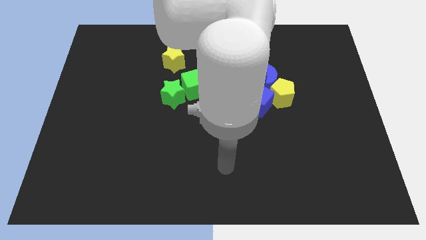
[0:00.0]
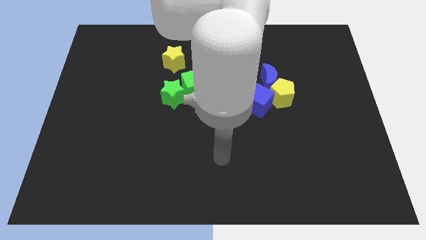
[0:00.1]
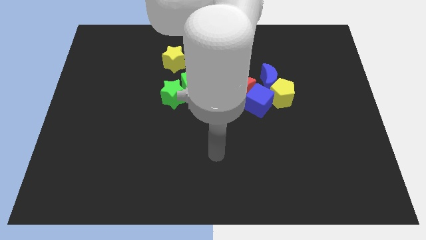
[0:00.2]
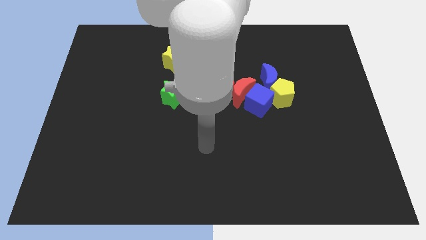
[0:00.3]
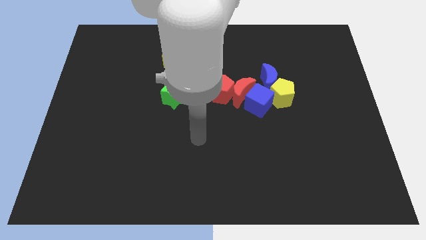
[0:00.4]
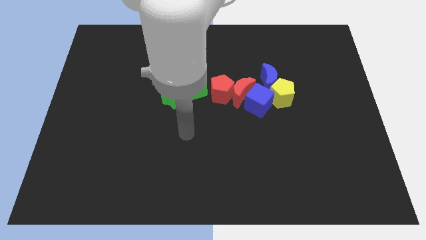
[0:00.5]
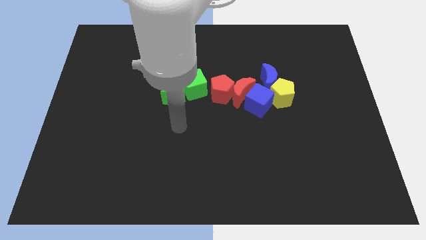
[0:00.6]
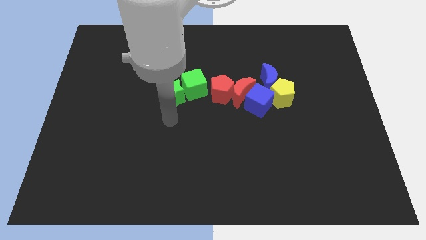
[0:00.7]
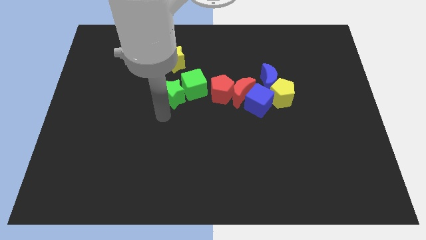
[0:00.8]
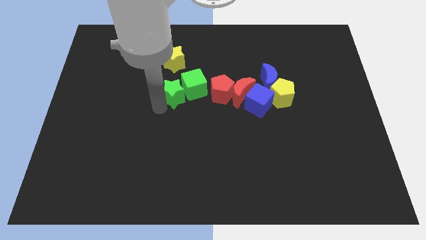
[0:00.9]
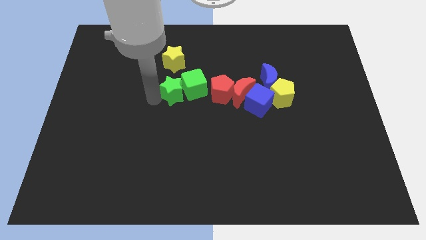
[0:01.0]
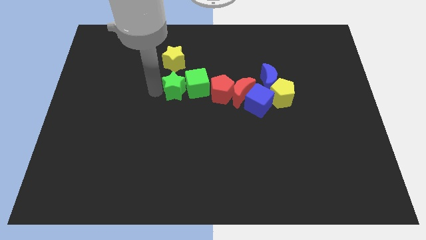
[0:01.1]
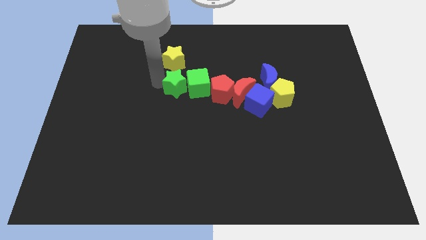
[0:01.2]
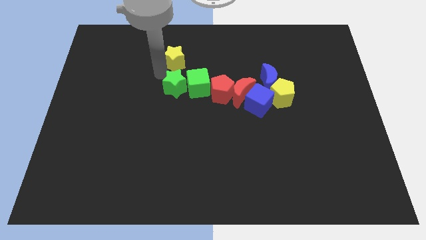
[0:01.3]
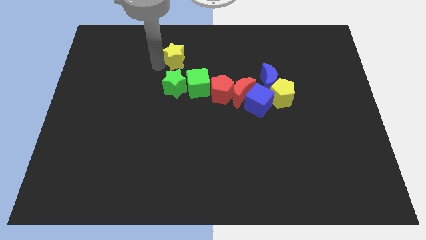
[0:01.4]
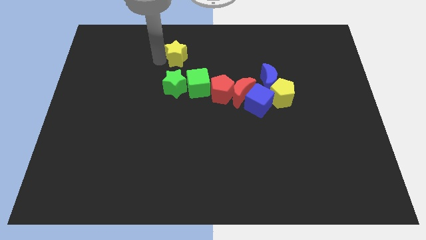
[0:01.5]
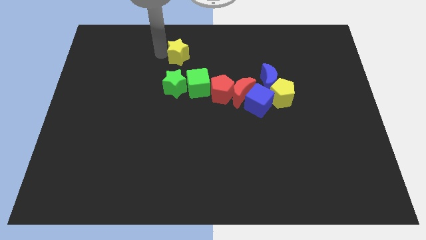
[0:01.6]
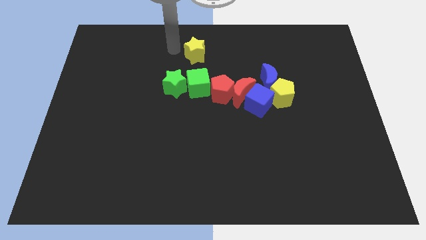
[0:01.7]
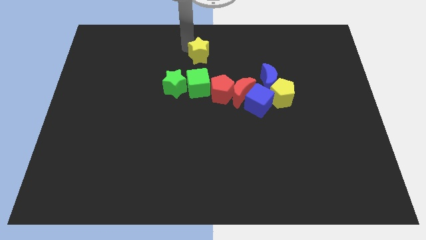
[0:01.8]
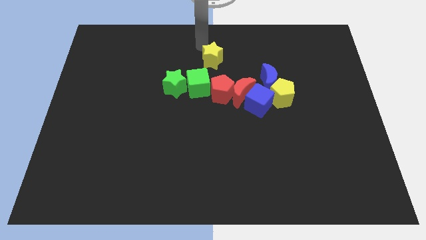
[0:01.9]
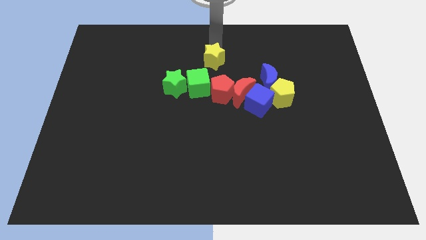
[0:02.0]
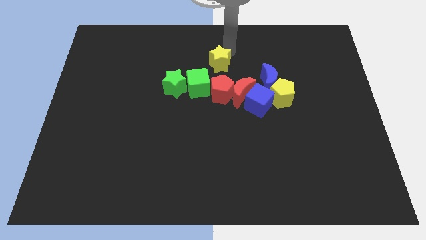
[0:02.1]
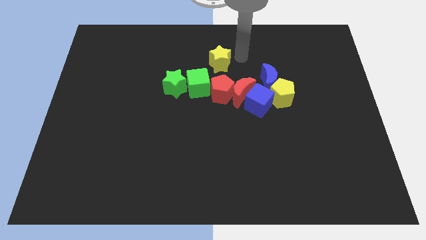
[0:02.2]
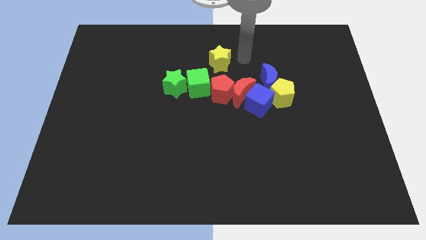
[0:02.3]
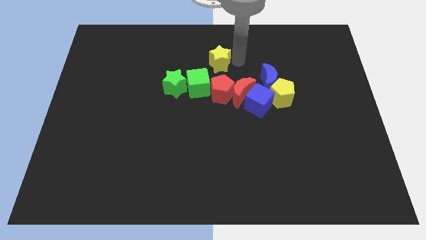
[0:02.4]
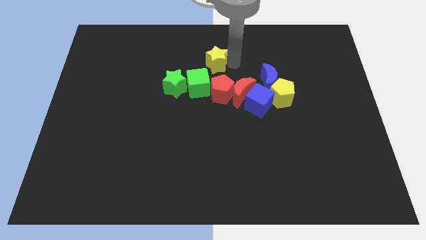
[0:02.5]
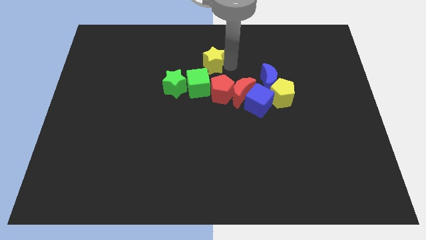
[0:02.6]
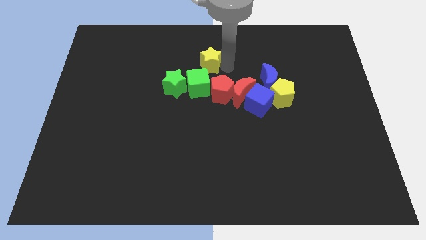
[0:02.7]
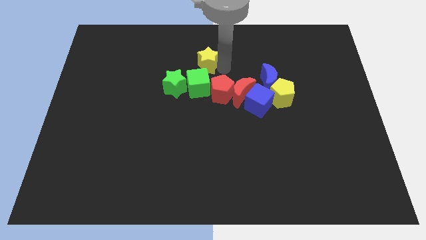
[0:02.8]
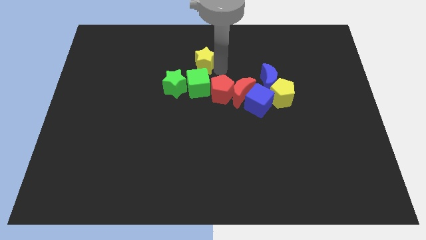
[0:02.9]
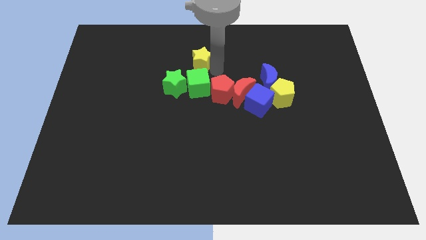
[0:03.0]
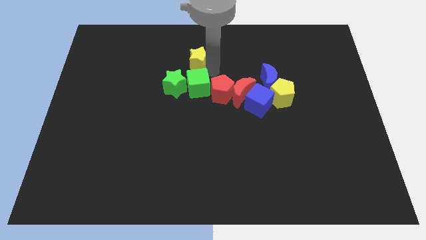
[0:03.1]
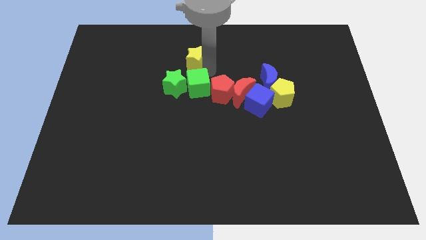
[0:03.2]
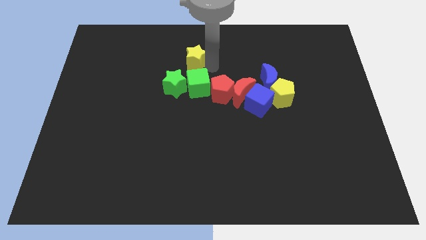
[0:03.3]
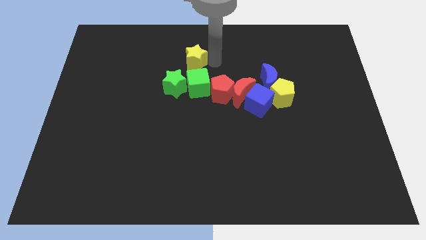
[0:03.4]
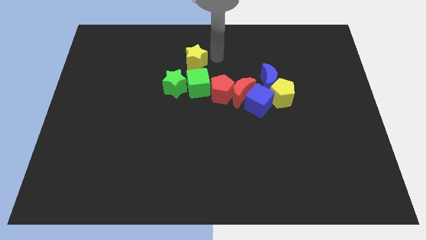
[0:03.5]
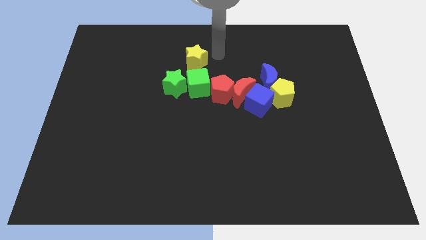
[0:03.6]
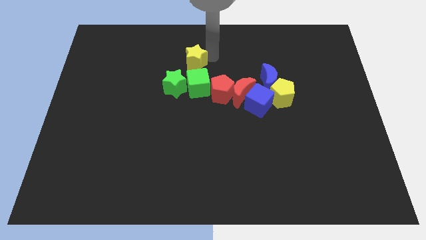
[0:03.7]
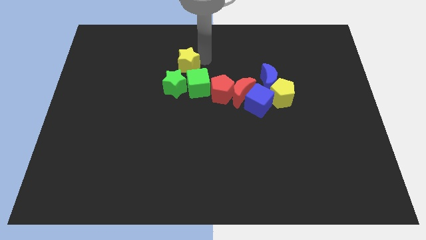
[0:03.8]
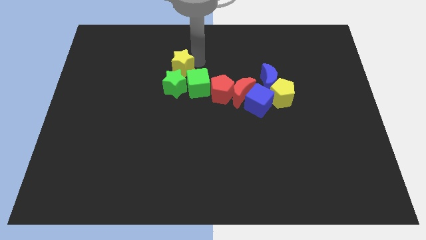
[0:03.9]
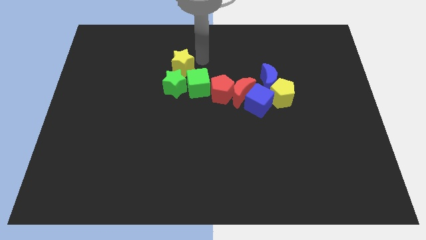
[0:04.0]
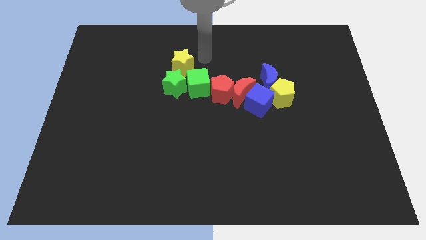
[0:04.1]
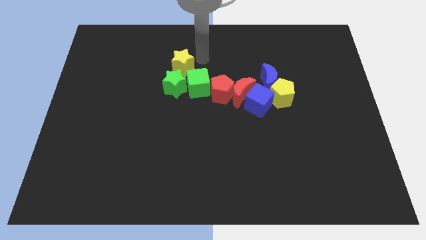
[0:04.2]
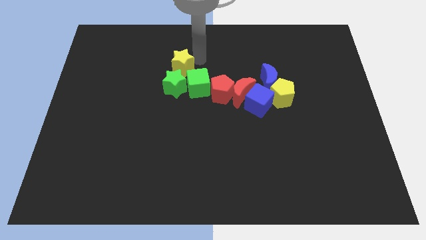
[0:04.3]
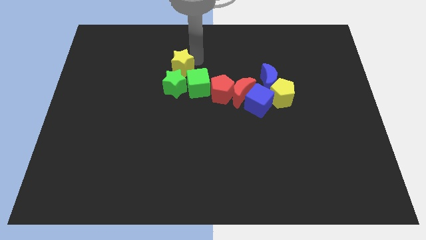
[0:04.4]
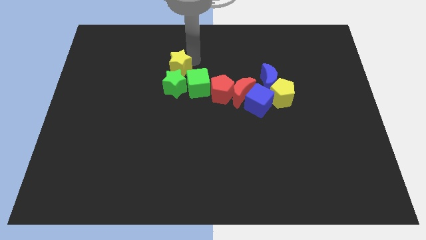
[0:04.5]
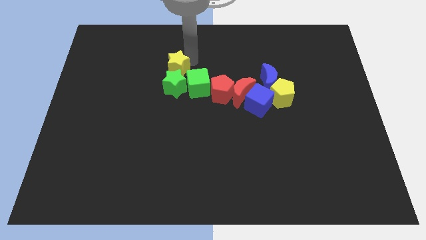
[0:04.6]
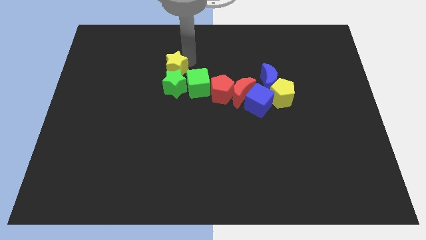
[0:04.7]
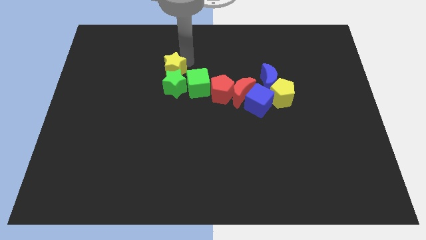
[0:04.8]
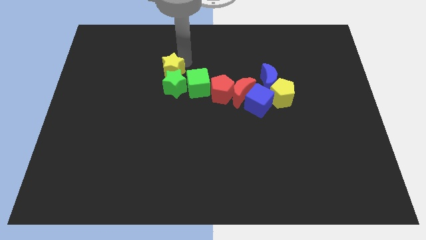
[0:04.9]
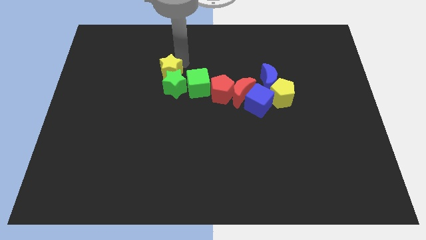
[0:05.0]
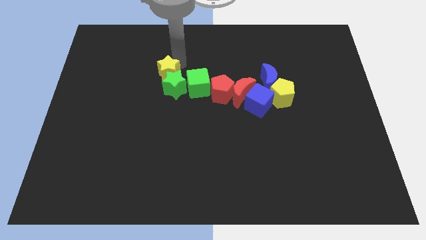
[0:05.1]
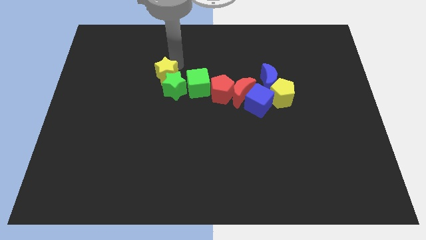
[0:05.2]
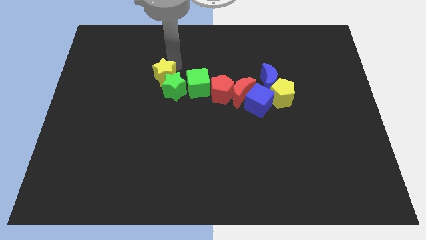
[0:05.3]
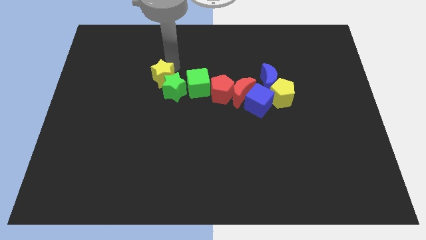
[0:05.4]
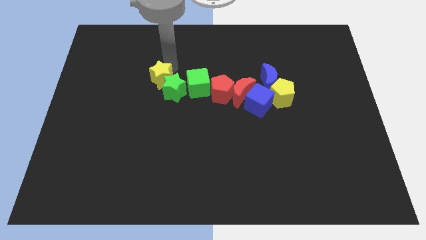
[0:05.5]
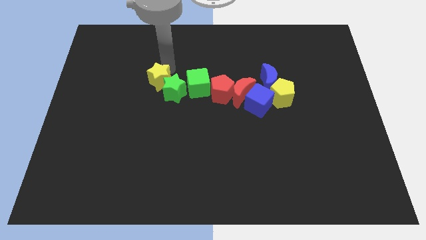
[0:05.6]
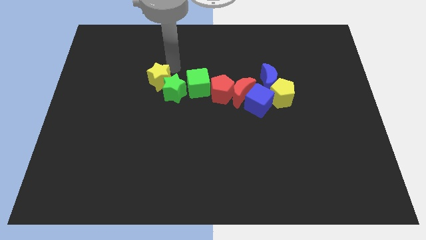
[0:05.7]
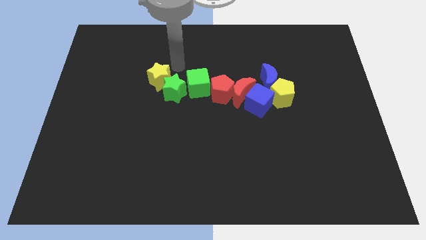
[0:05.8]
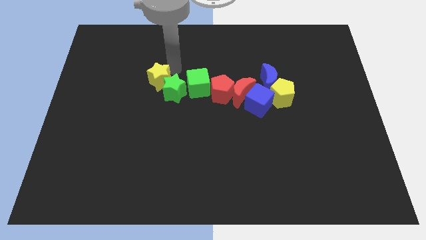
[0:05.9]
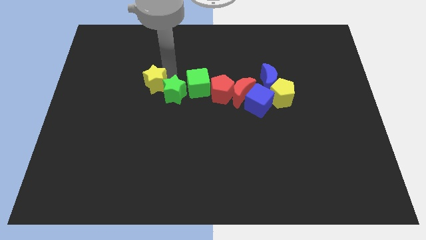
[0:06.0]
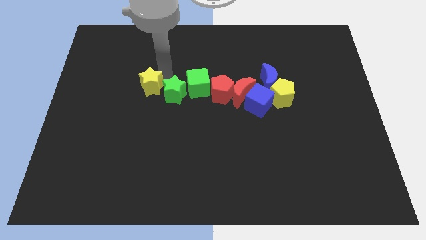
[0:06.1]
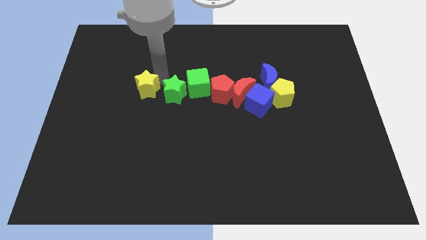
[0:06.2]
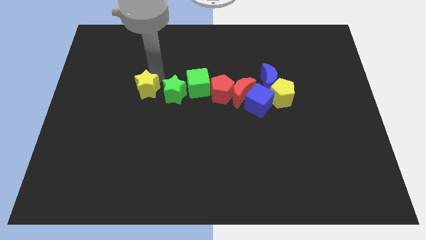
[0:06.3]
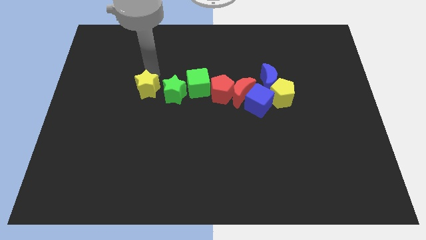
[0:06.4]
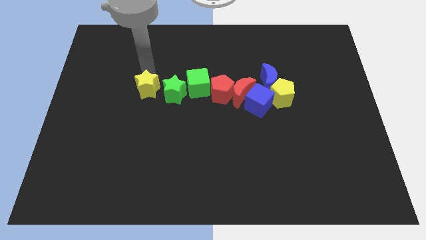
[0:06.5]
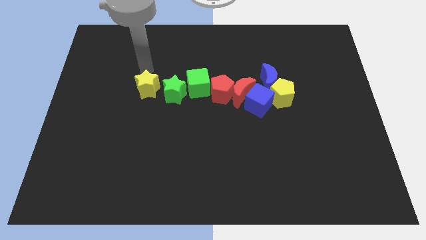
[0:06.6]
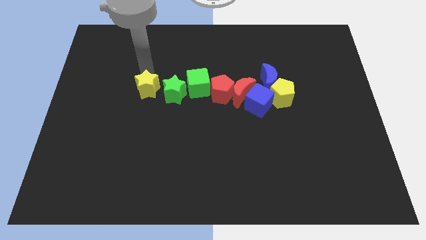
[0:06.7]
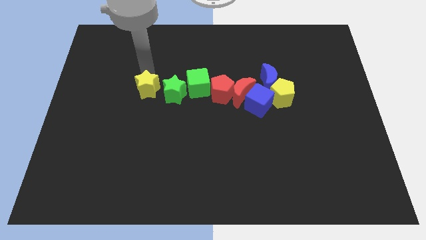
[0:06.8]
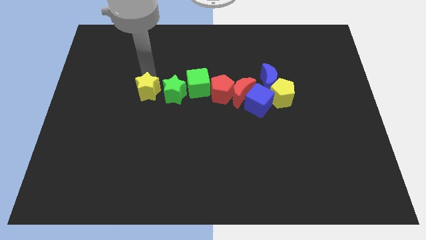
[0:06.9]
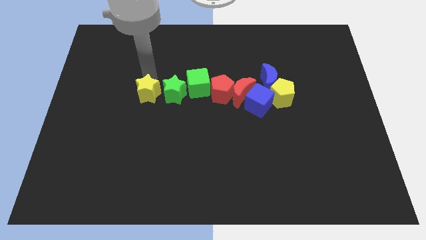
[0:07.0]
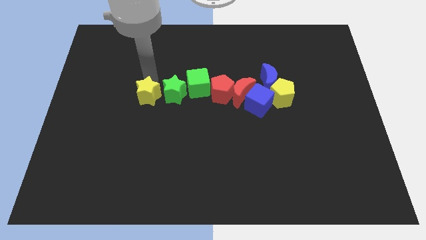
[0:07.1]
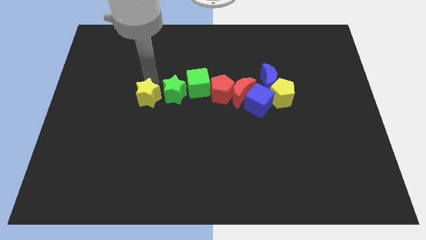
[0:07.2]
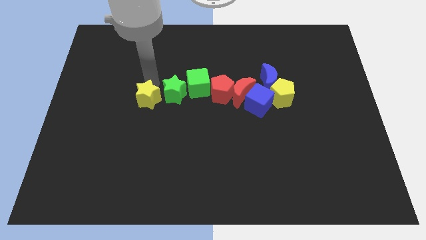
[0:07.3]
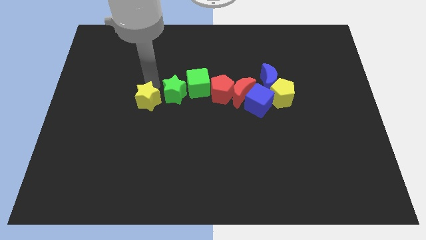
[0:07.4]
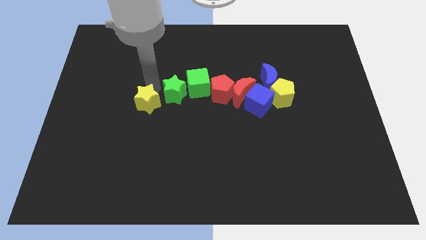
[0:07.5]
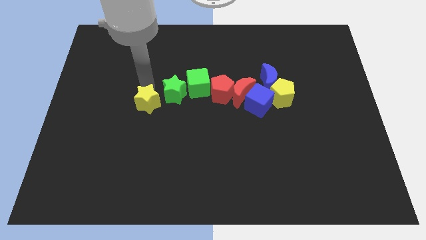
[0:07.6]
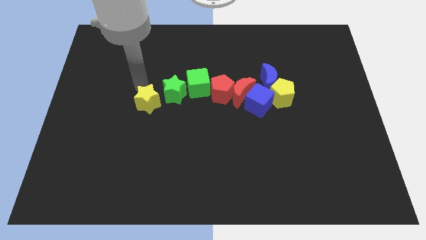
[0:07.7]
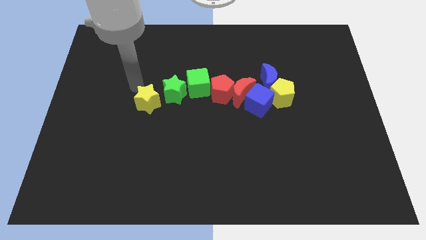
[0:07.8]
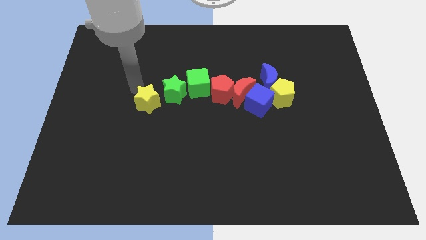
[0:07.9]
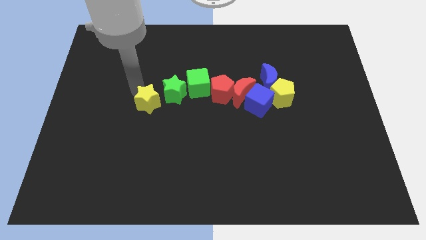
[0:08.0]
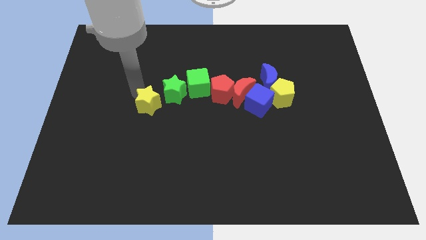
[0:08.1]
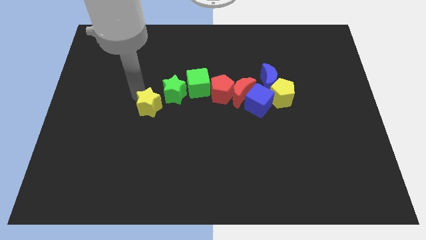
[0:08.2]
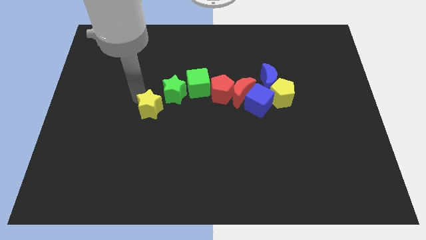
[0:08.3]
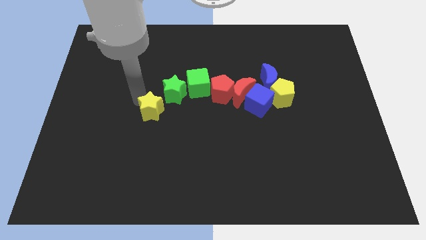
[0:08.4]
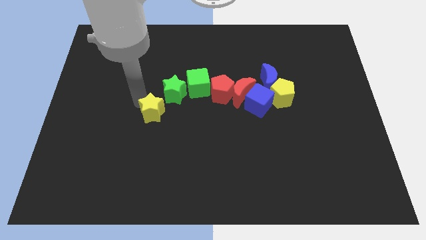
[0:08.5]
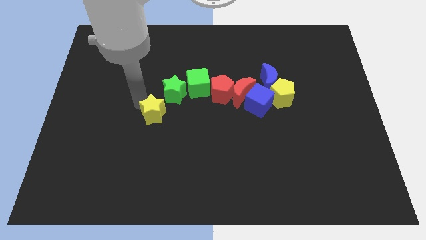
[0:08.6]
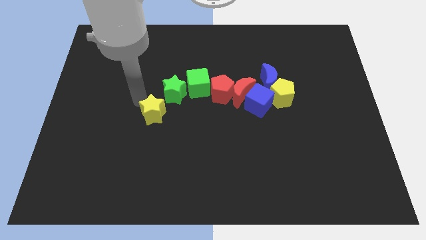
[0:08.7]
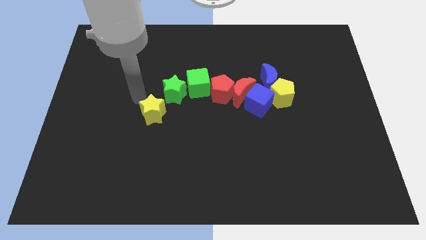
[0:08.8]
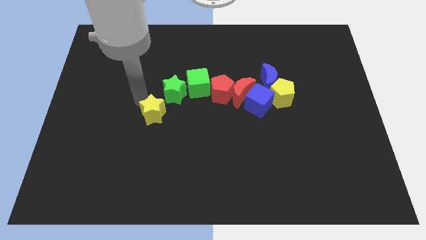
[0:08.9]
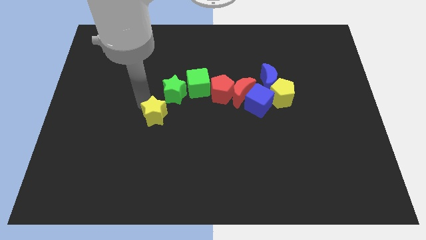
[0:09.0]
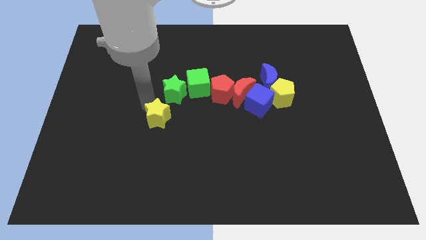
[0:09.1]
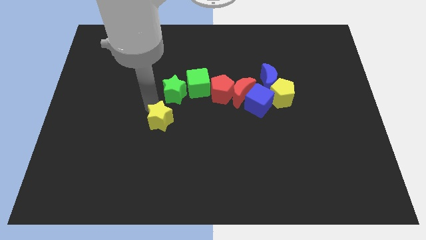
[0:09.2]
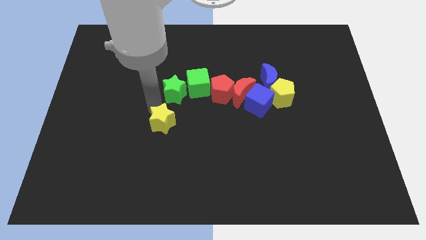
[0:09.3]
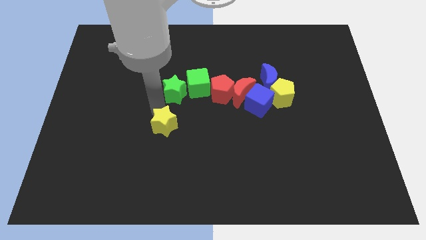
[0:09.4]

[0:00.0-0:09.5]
move the yellow star down
